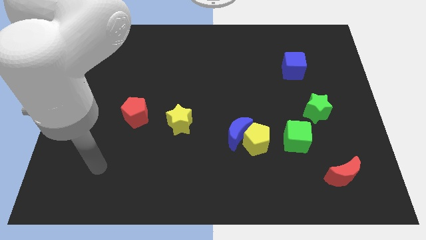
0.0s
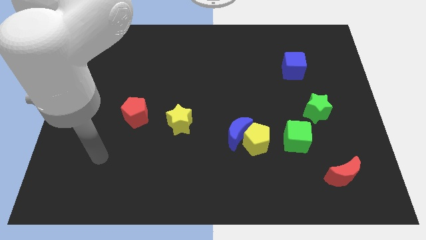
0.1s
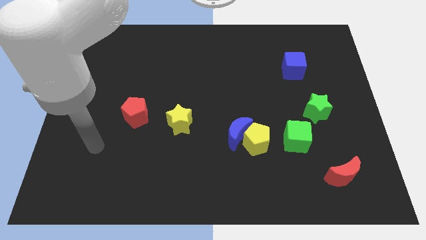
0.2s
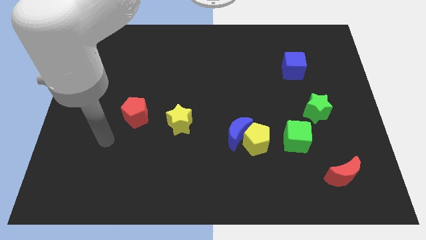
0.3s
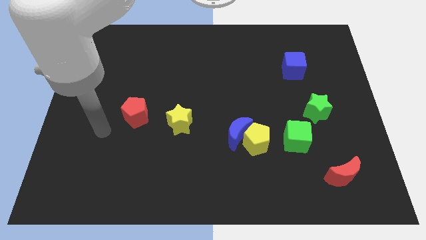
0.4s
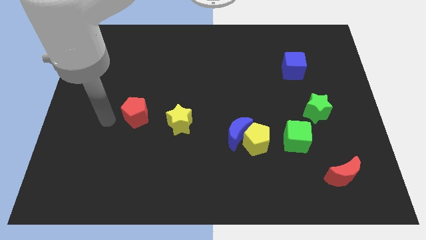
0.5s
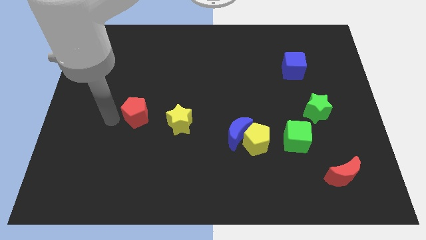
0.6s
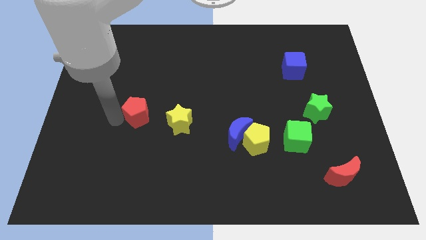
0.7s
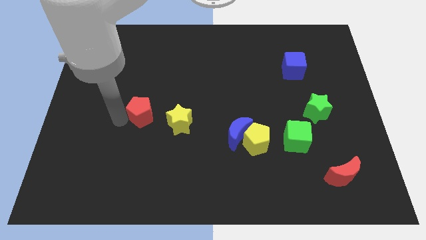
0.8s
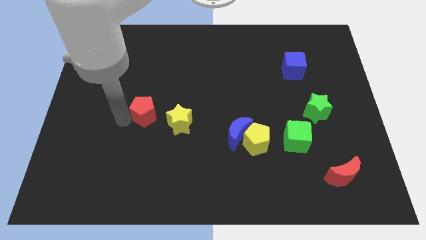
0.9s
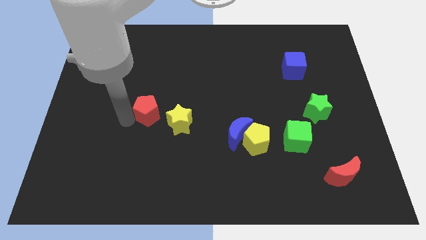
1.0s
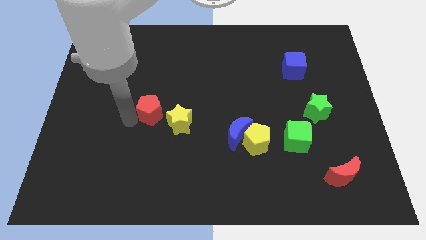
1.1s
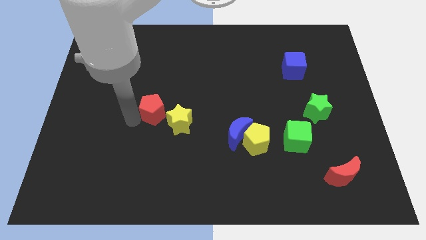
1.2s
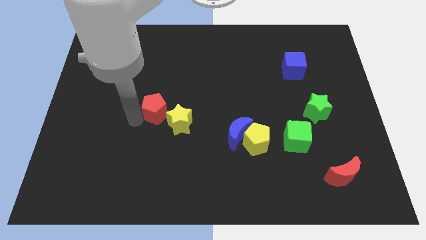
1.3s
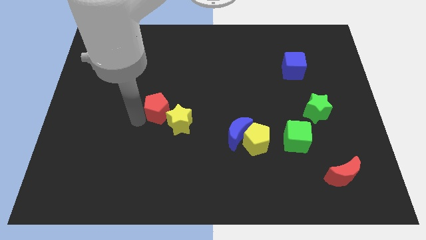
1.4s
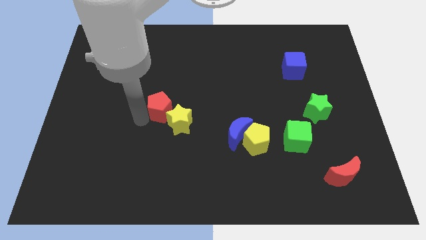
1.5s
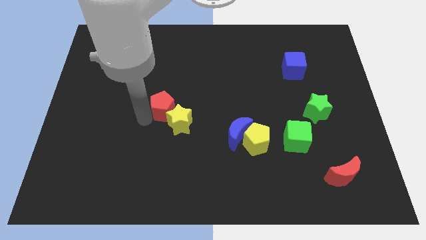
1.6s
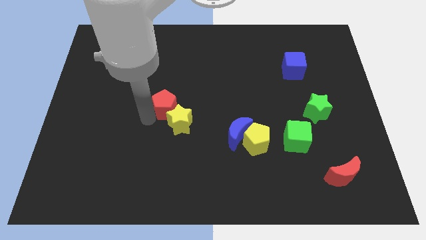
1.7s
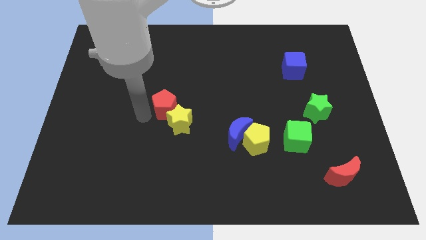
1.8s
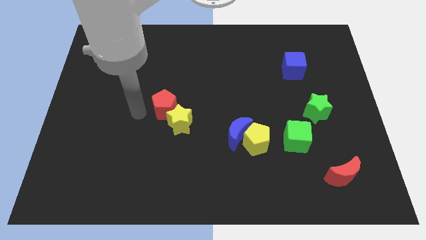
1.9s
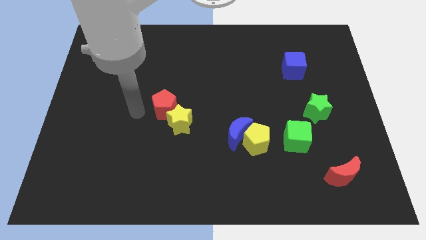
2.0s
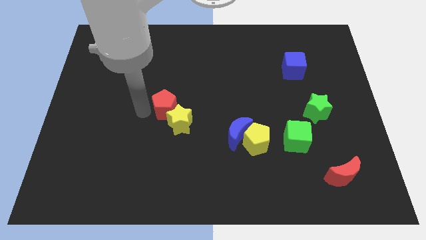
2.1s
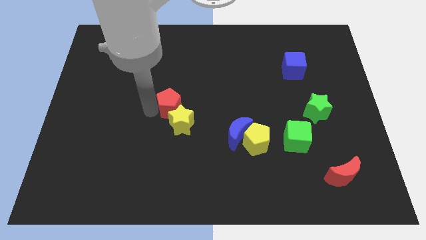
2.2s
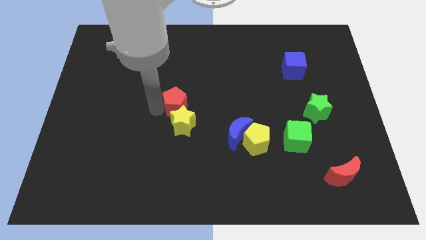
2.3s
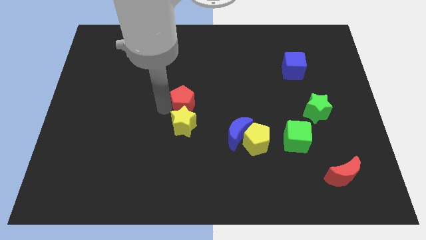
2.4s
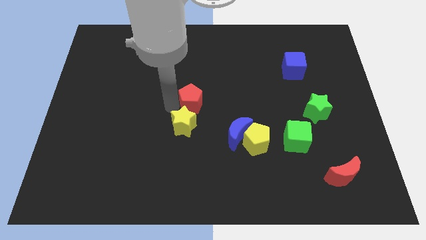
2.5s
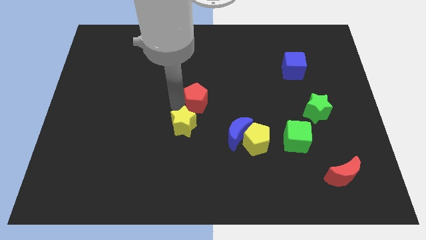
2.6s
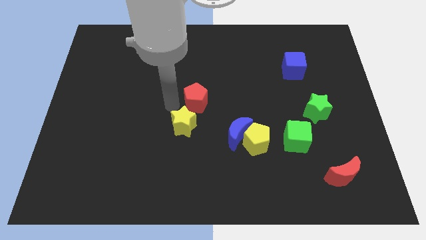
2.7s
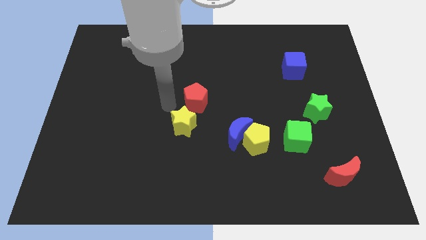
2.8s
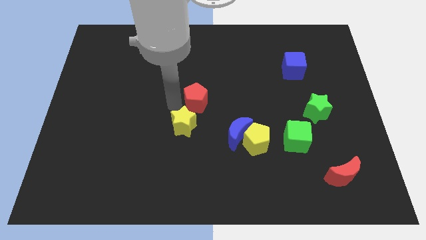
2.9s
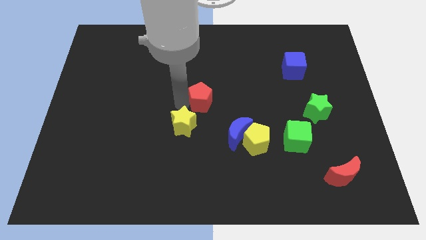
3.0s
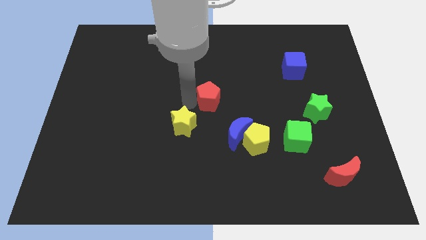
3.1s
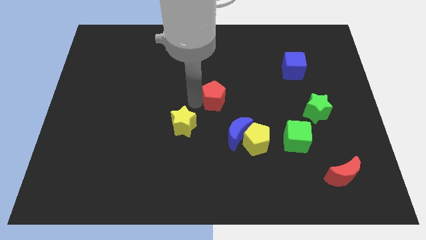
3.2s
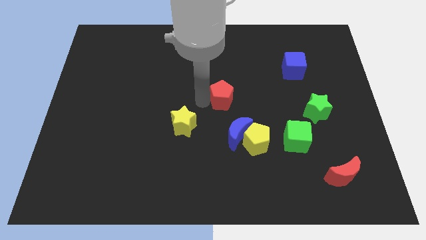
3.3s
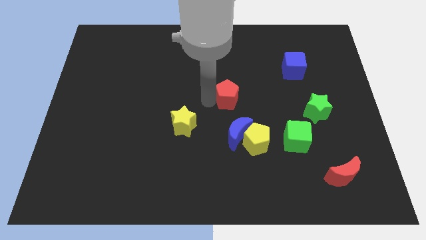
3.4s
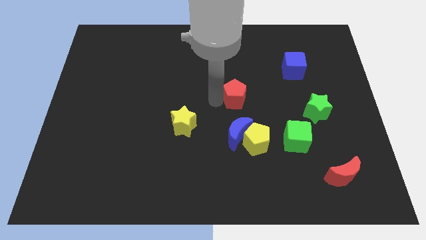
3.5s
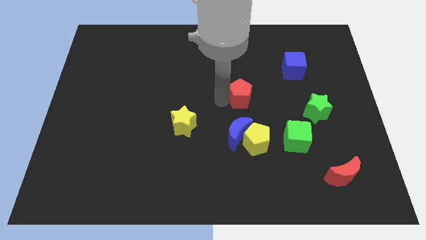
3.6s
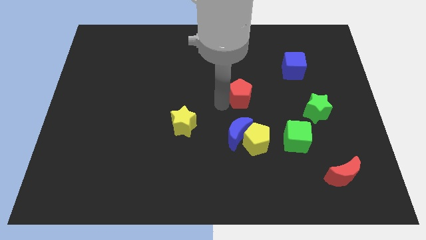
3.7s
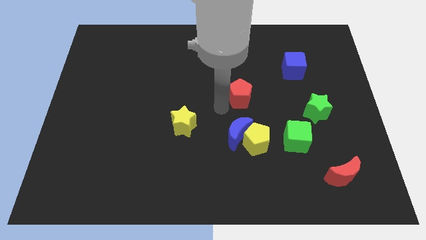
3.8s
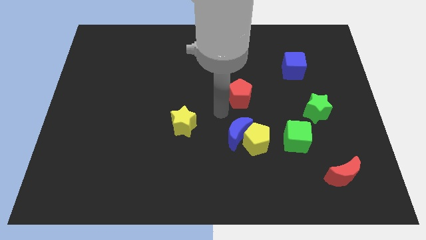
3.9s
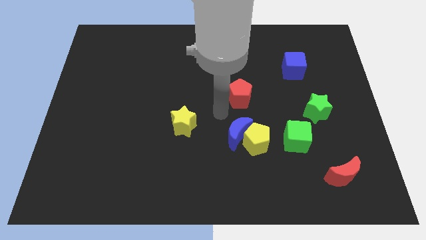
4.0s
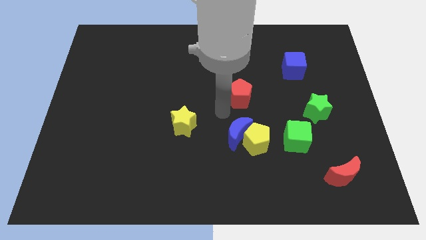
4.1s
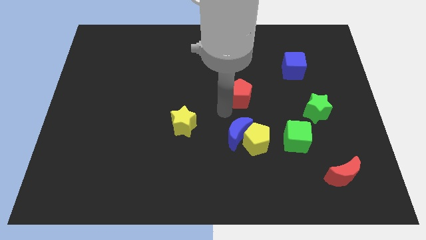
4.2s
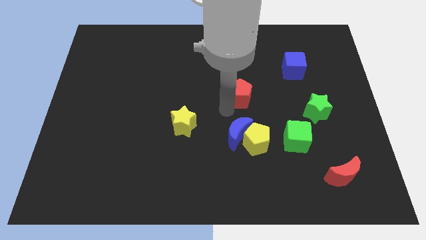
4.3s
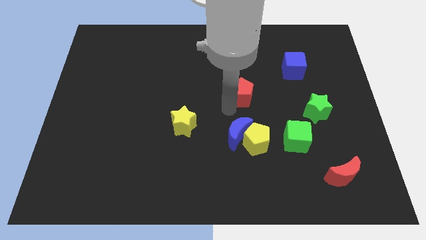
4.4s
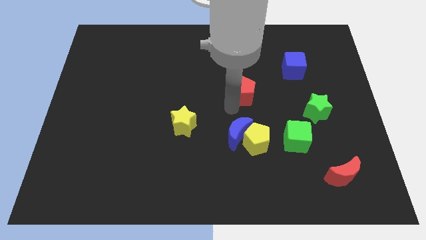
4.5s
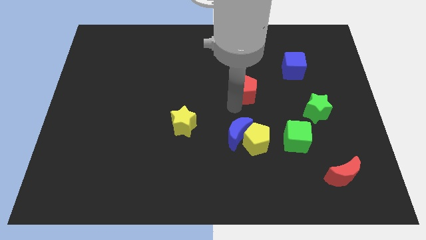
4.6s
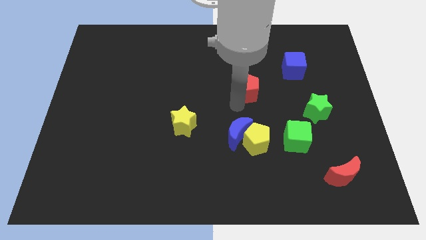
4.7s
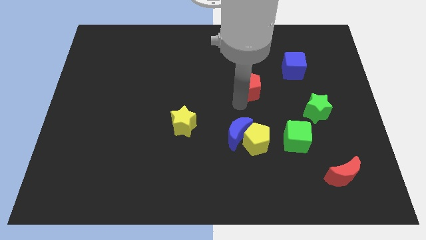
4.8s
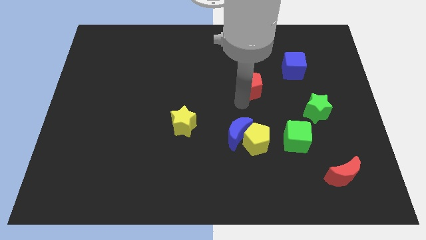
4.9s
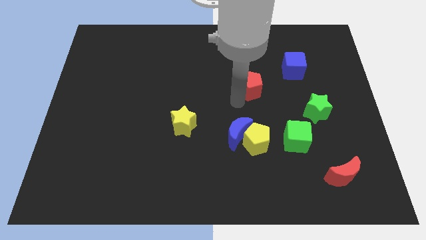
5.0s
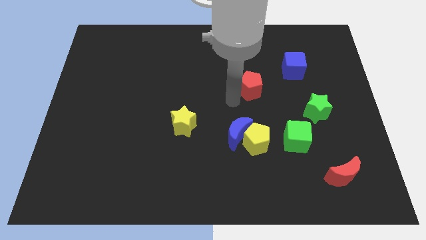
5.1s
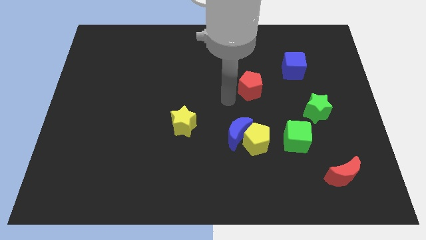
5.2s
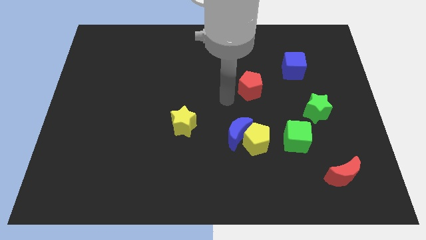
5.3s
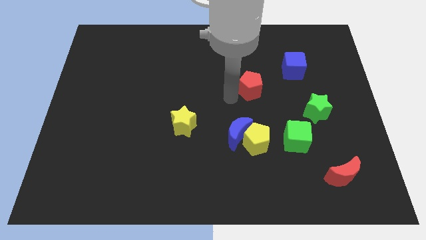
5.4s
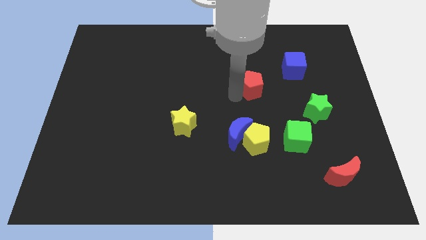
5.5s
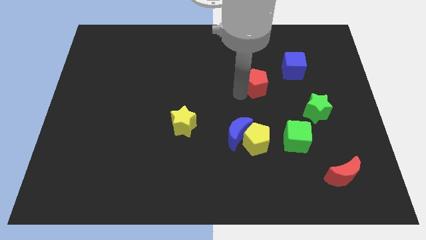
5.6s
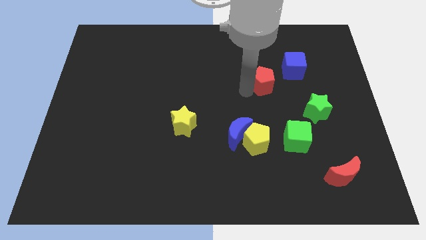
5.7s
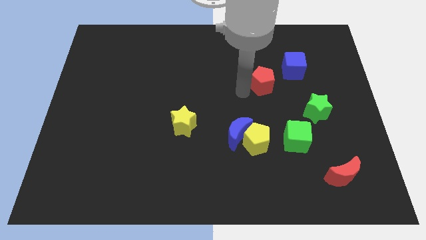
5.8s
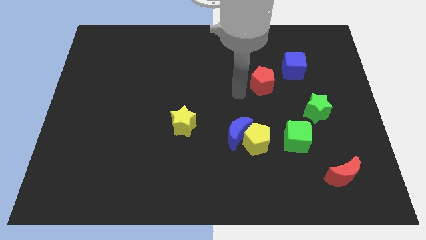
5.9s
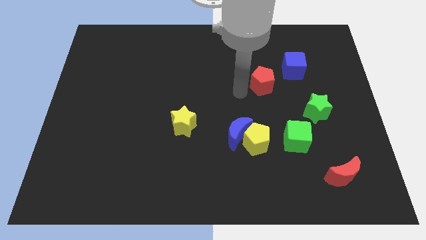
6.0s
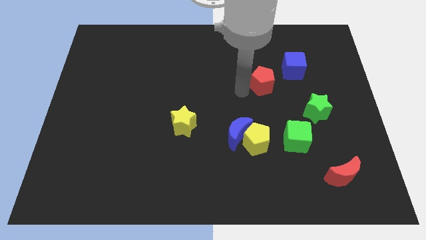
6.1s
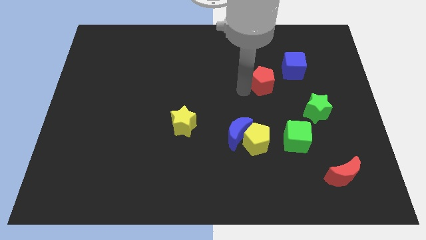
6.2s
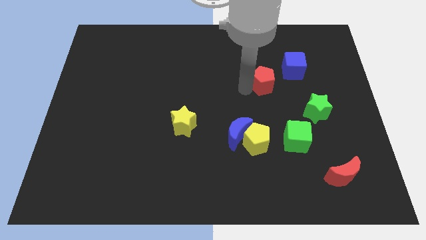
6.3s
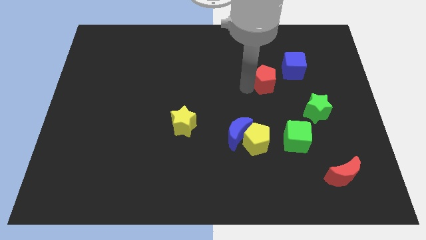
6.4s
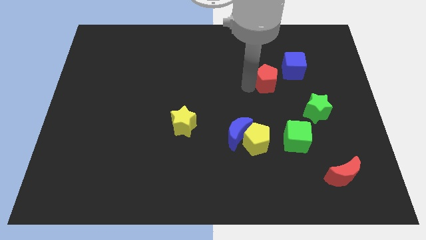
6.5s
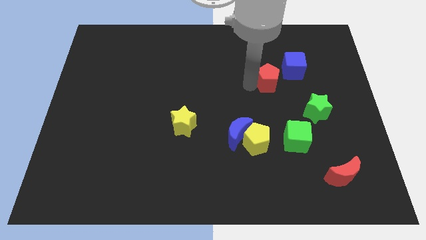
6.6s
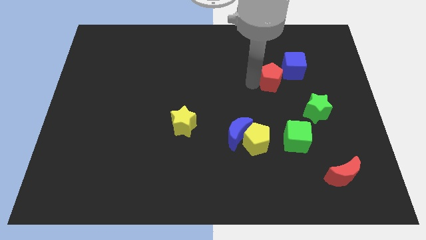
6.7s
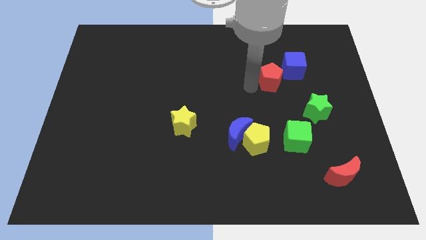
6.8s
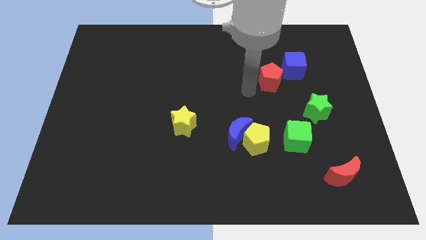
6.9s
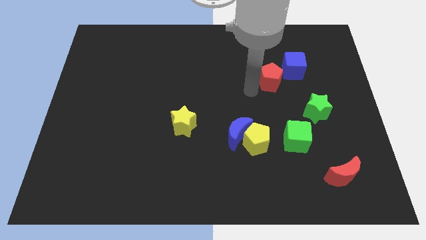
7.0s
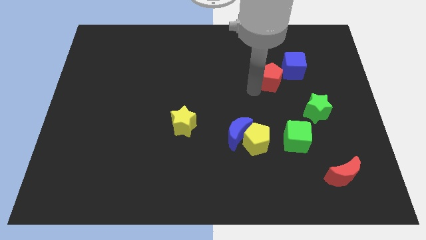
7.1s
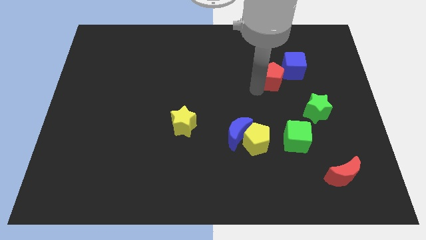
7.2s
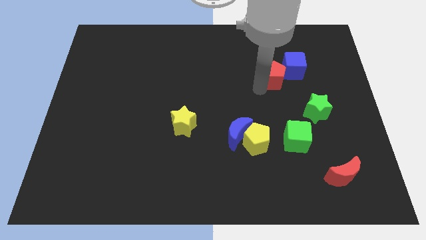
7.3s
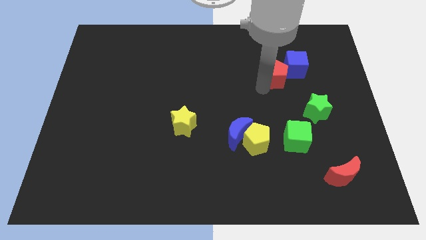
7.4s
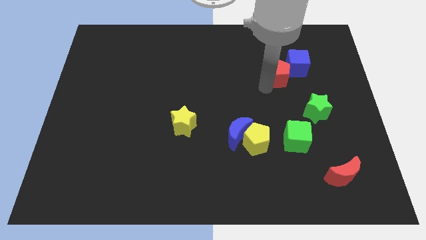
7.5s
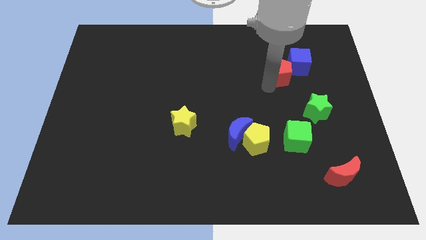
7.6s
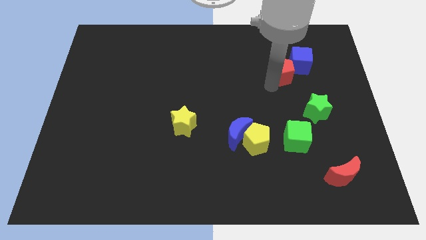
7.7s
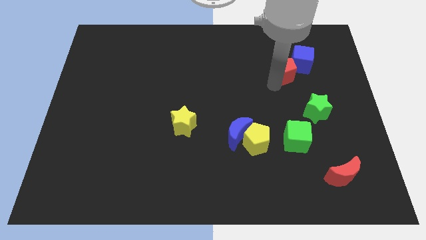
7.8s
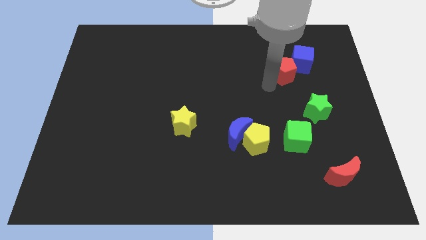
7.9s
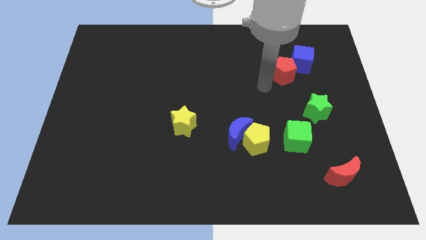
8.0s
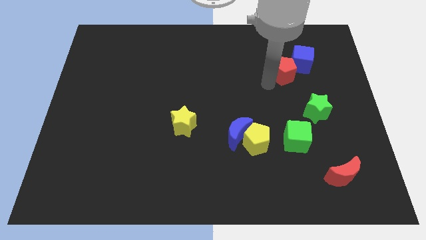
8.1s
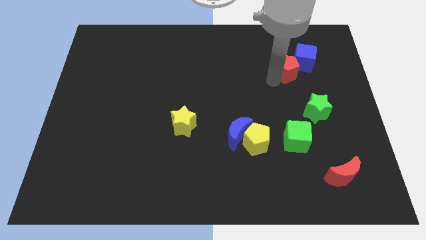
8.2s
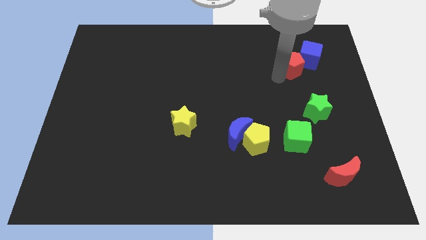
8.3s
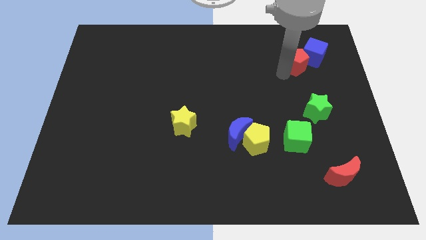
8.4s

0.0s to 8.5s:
slide the red pentagon to the blue cube
